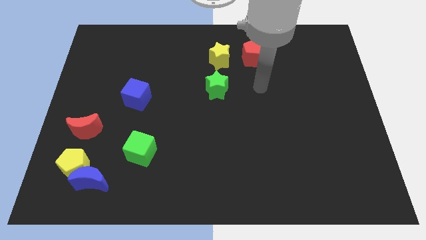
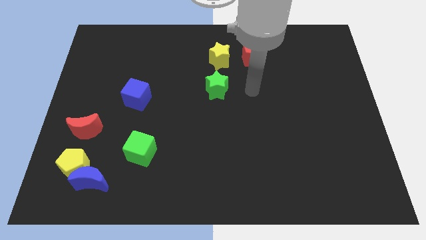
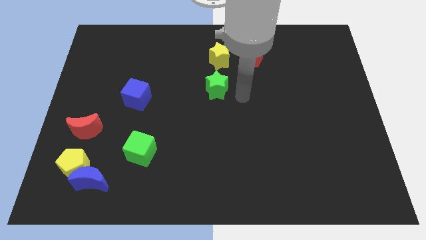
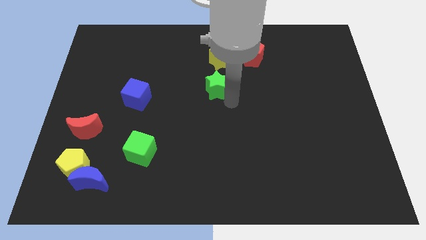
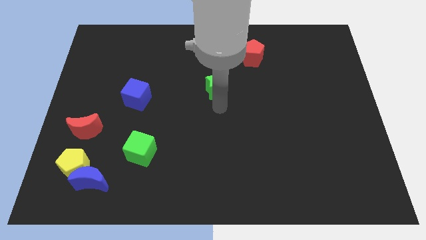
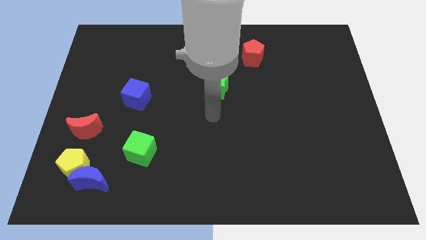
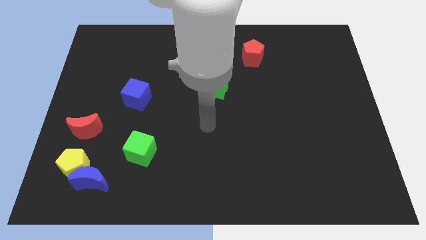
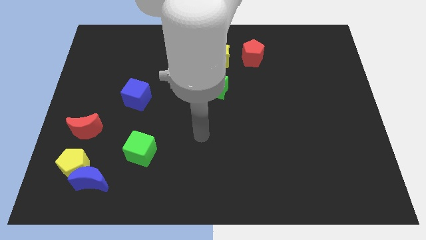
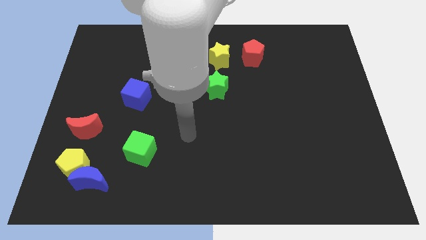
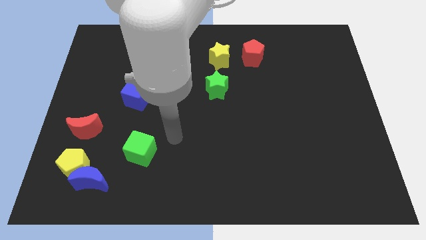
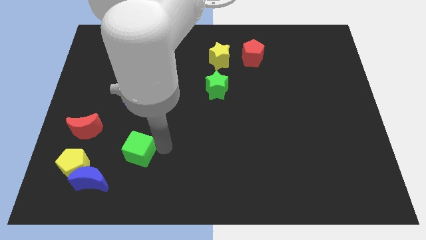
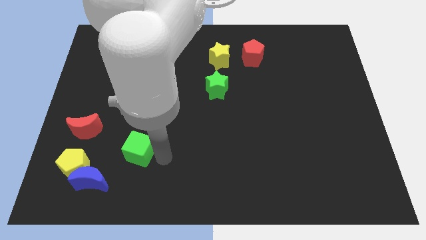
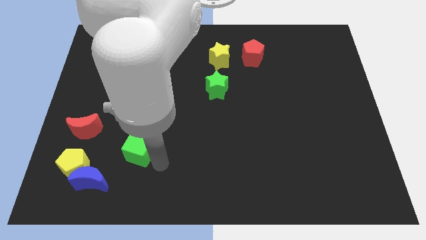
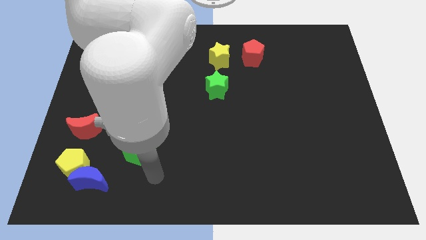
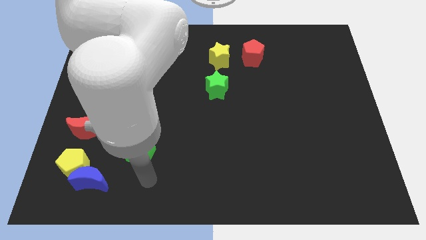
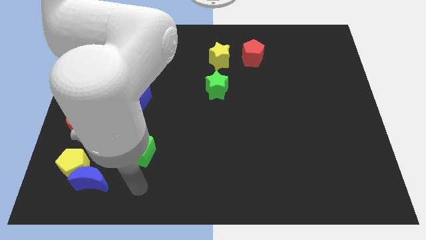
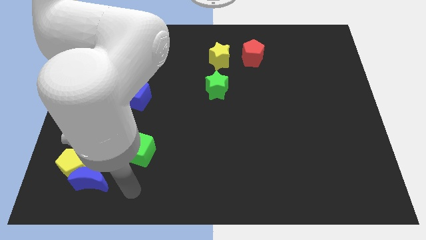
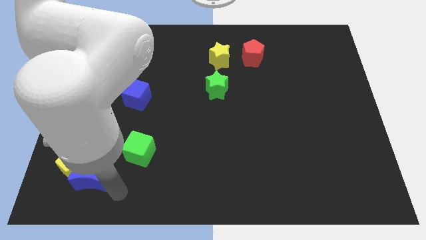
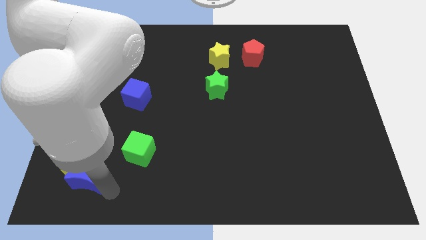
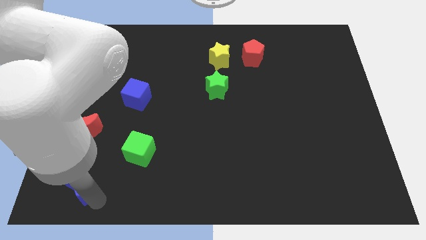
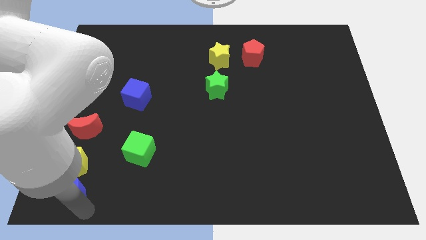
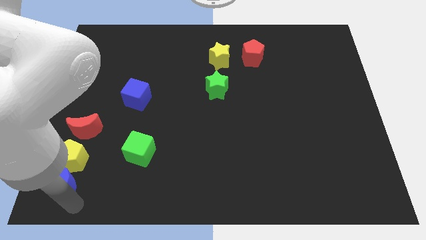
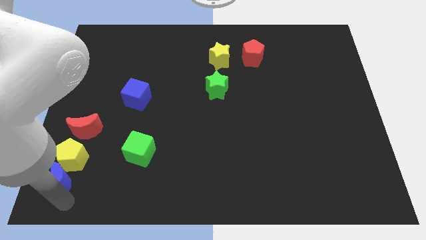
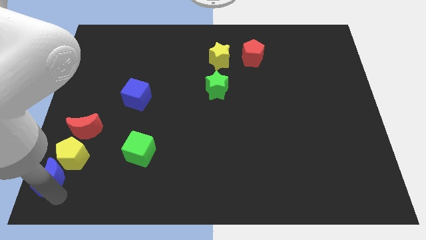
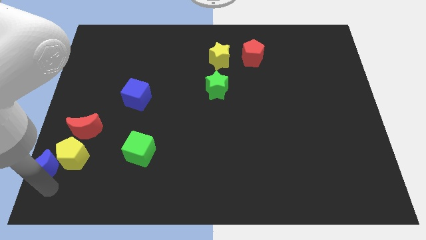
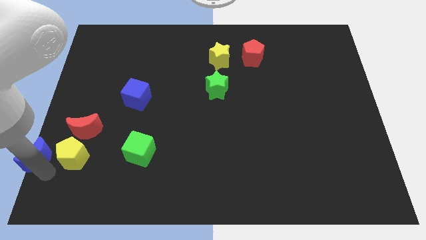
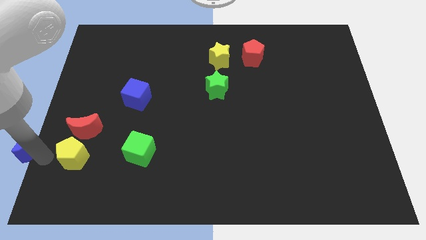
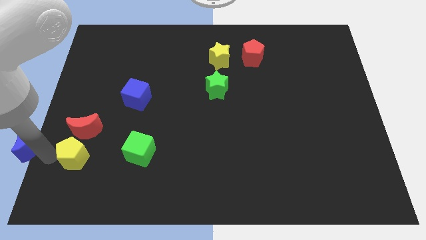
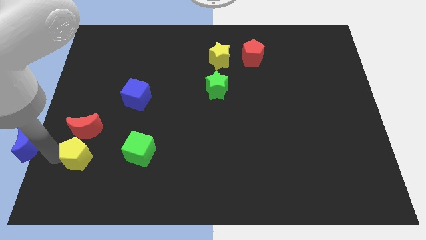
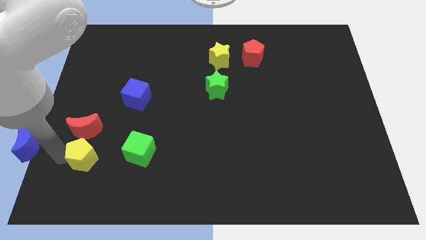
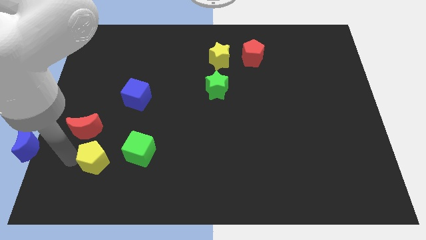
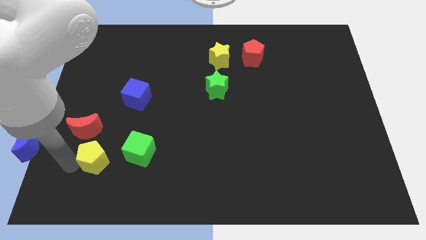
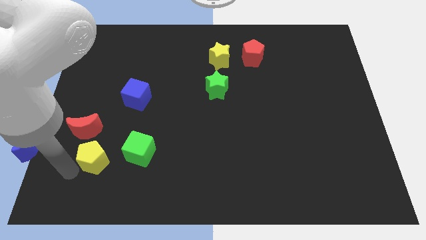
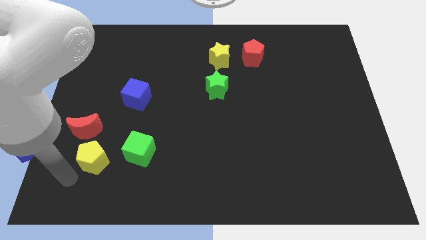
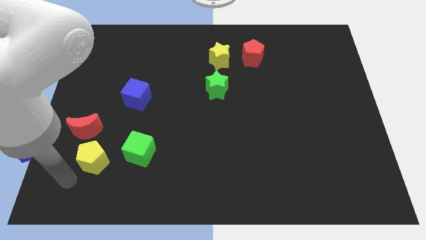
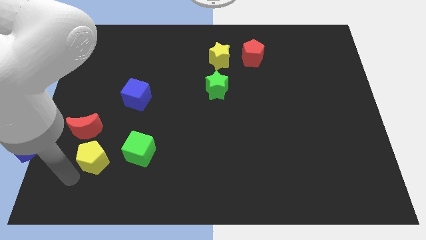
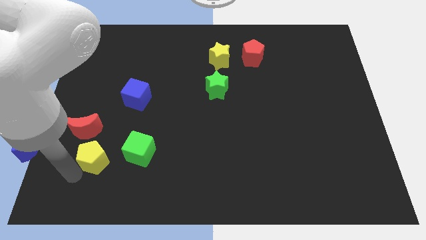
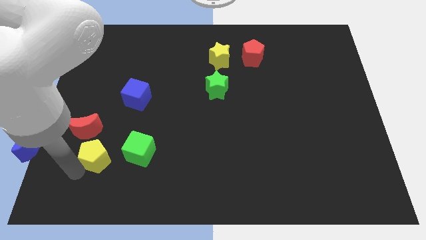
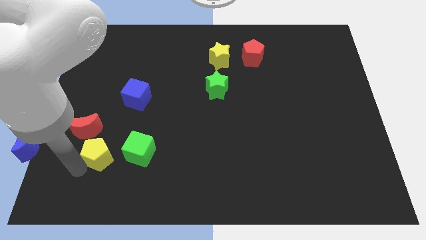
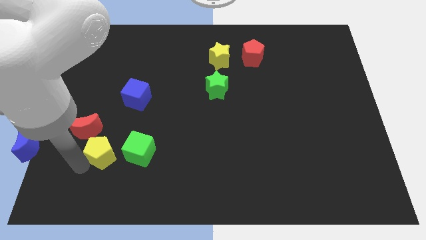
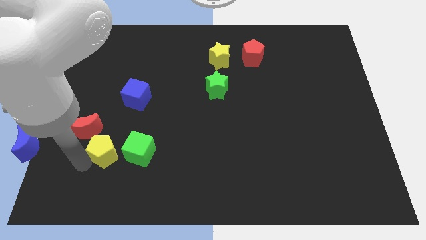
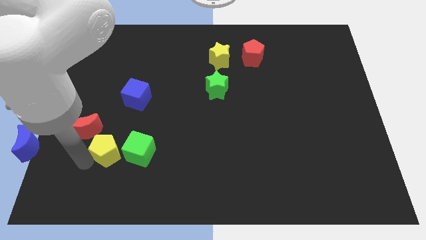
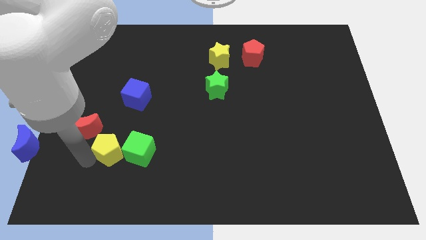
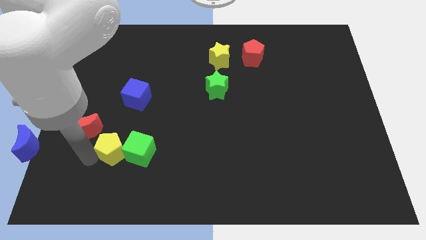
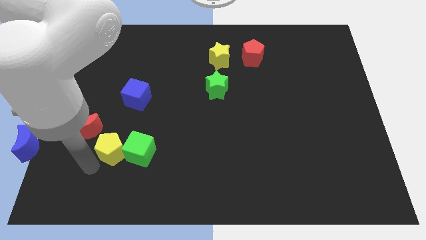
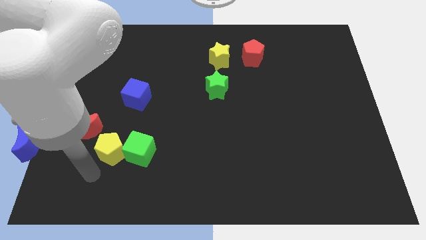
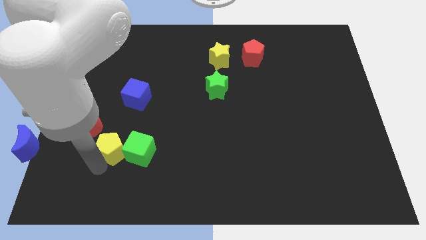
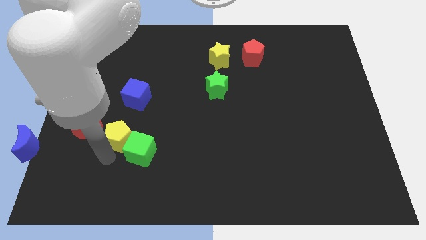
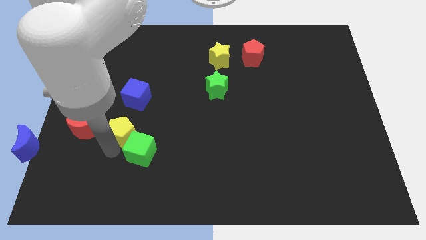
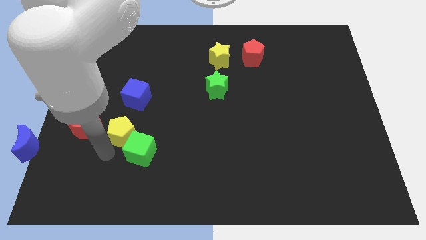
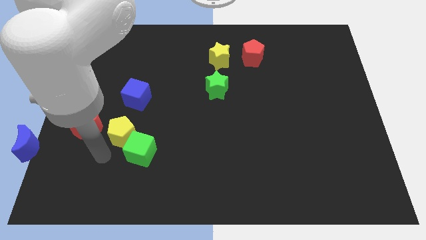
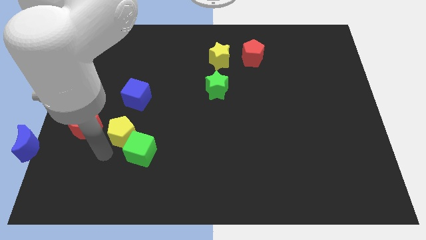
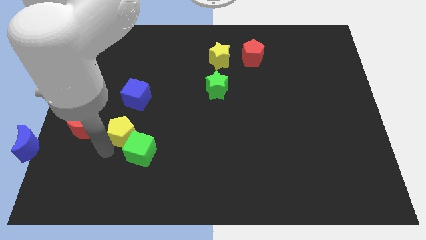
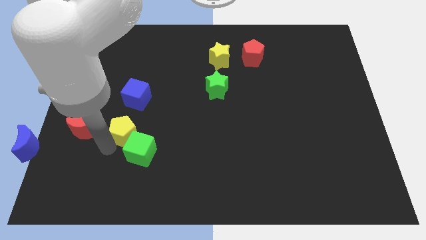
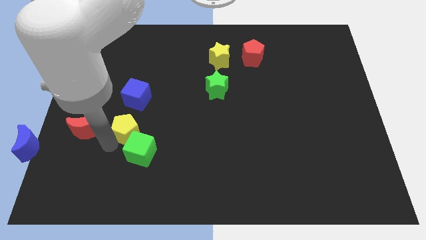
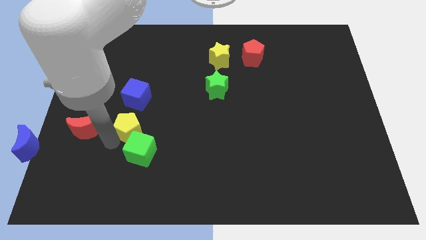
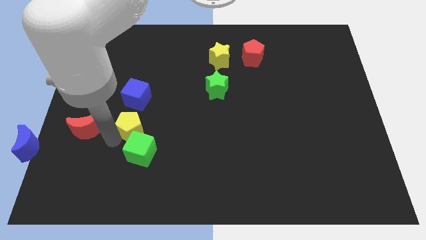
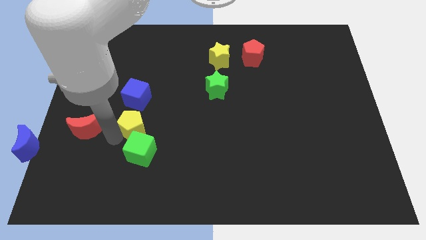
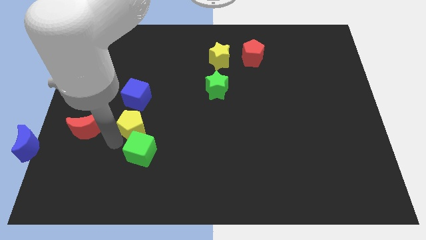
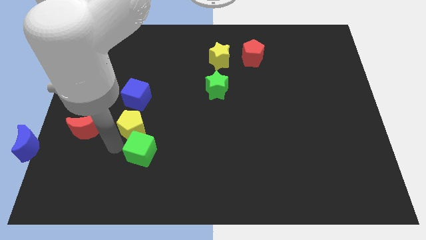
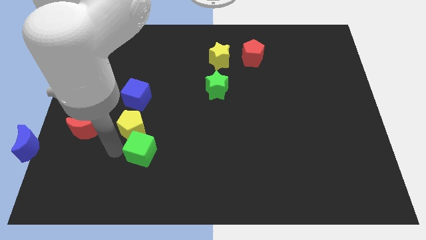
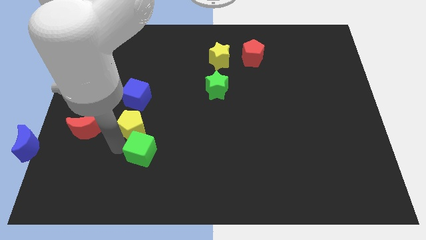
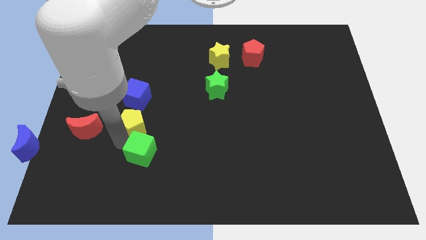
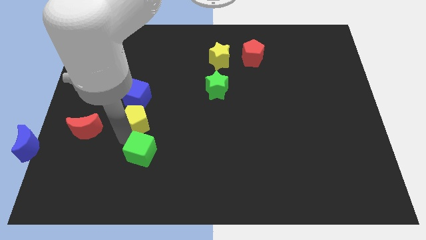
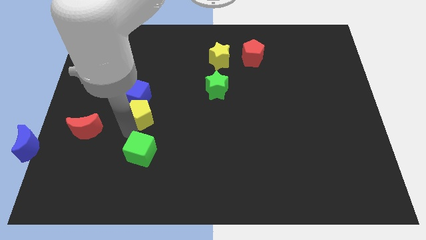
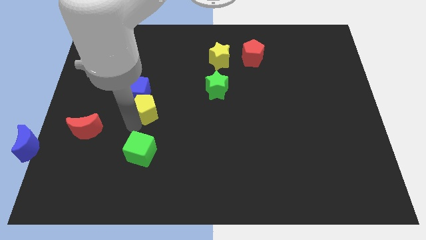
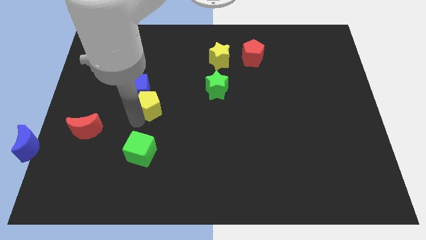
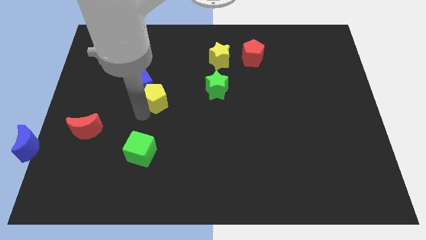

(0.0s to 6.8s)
move the yellow pentagon right of the blue cube

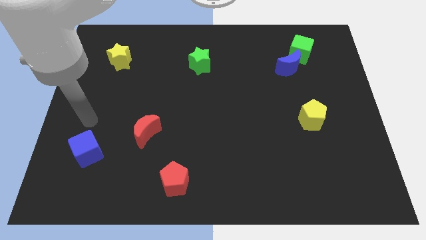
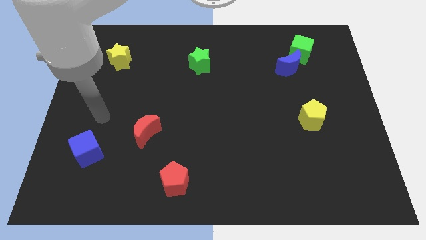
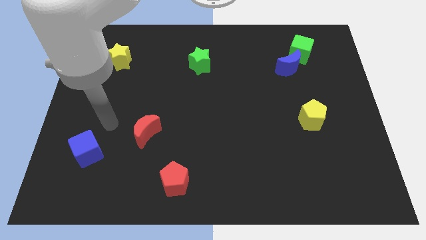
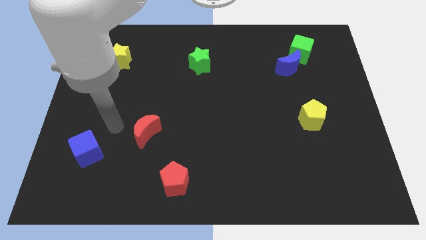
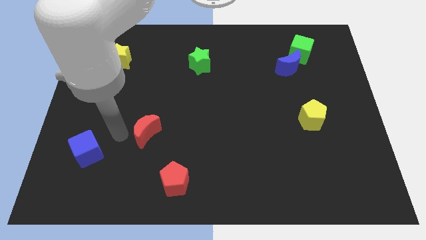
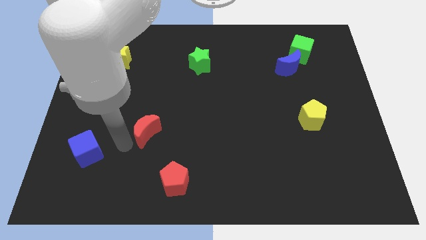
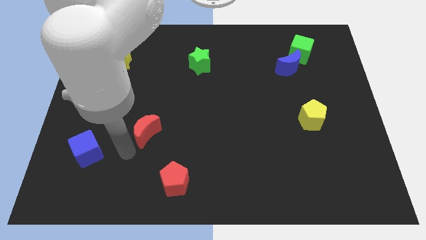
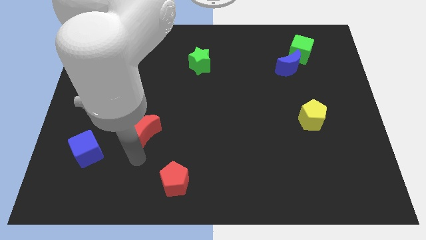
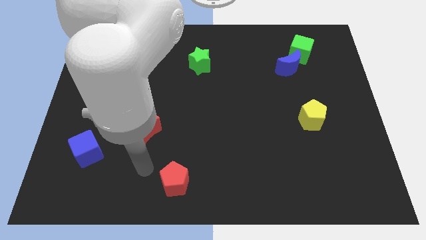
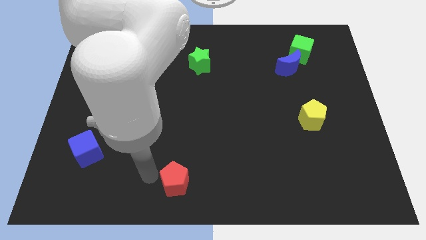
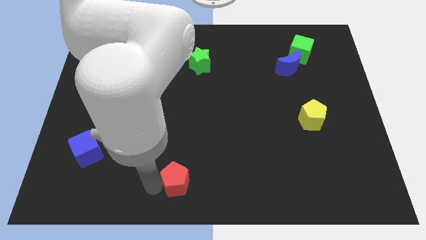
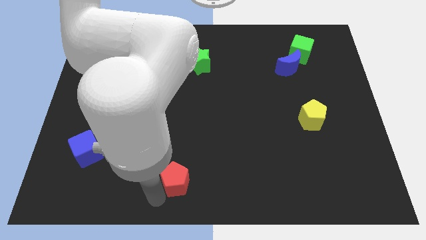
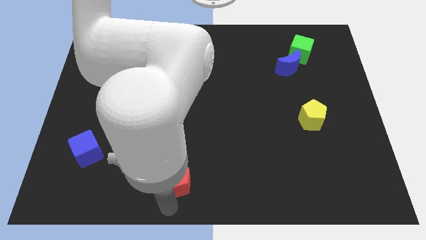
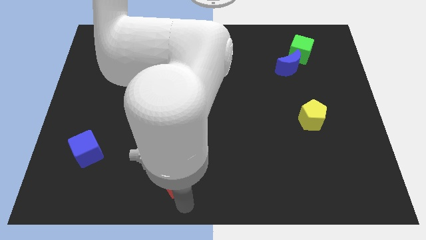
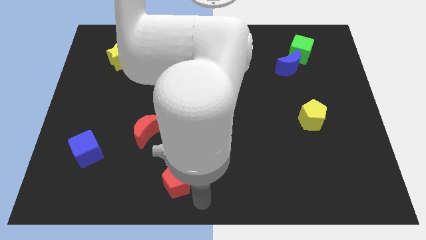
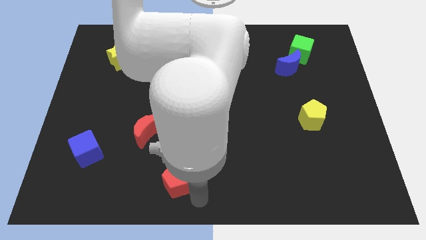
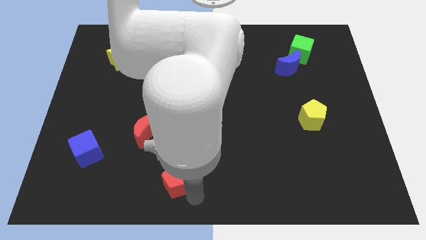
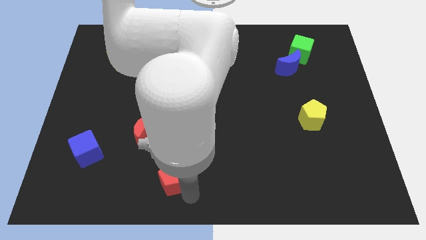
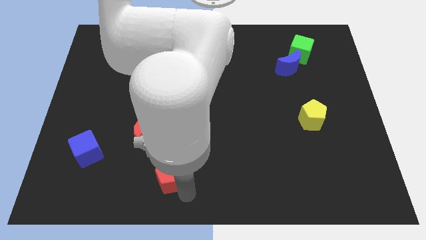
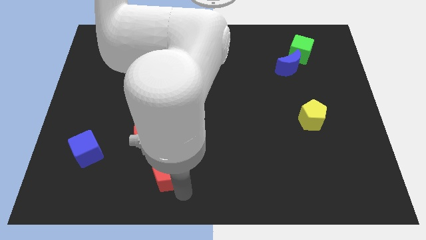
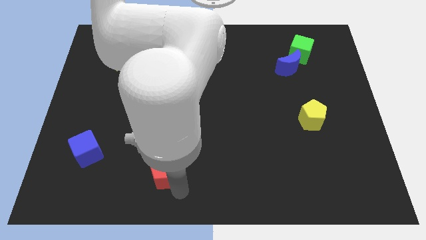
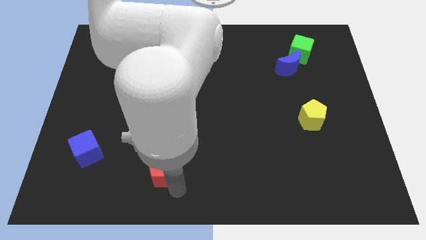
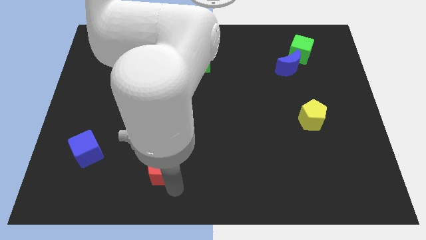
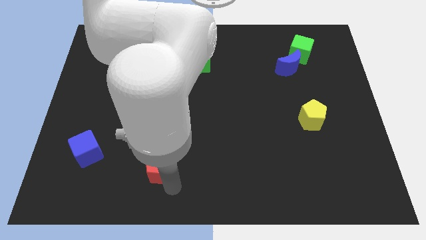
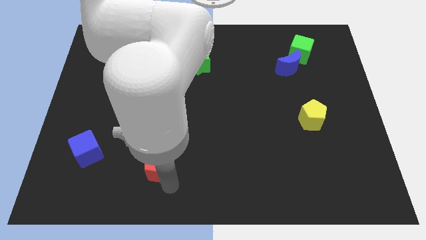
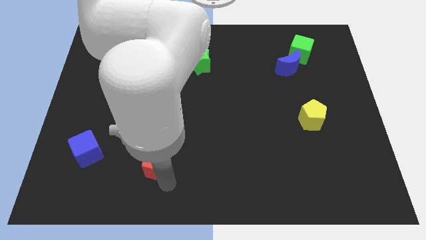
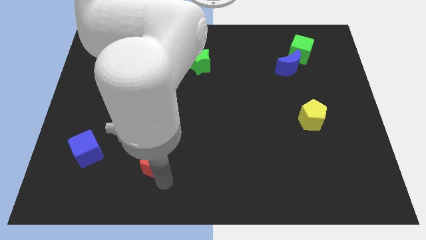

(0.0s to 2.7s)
slide the red pentagon just right of the blue cube
